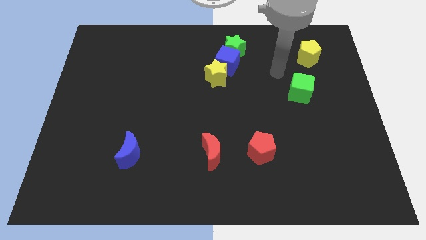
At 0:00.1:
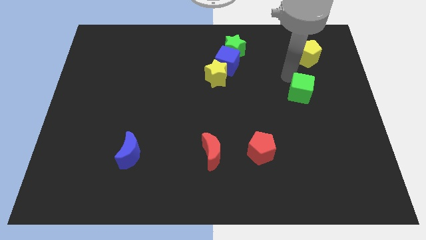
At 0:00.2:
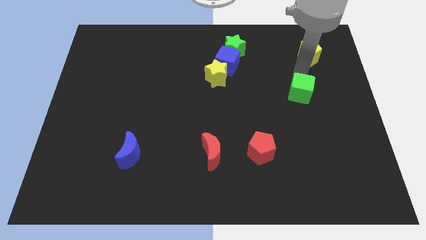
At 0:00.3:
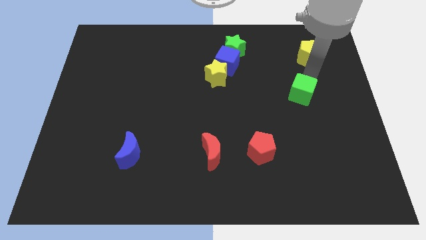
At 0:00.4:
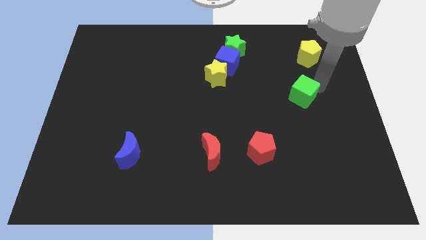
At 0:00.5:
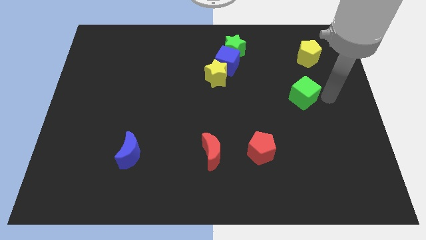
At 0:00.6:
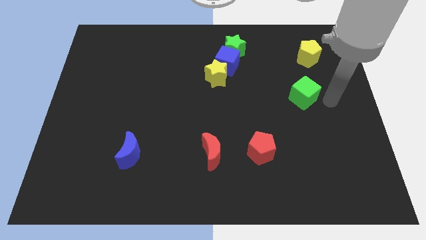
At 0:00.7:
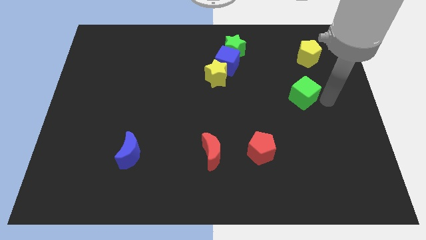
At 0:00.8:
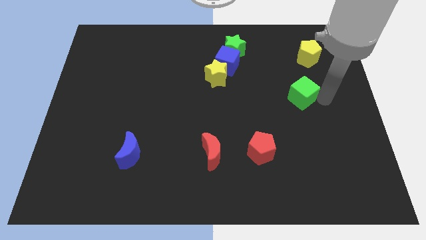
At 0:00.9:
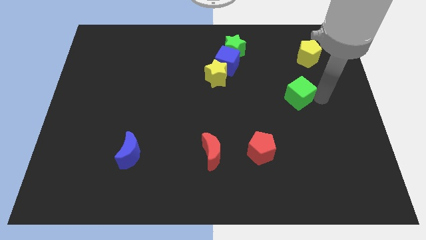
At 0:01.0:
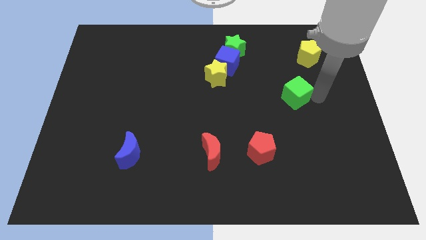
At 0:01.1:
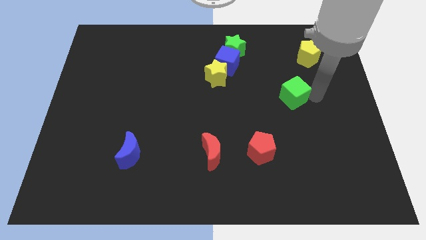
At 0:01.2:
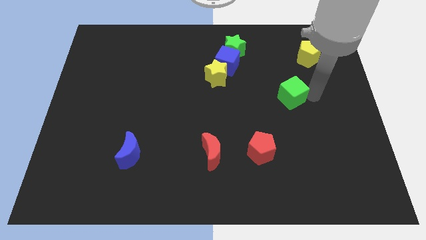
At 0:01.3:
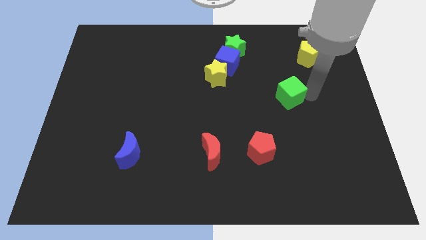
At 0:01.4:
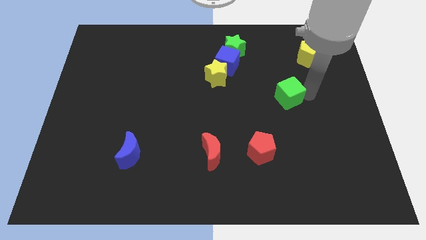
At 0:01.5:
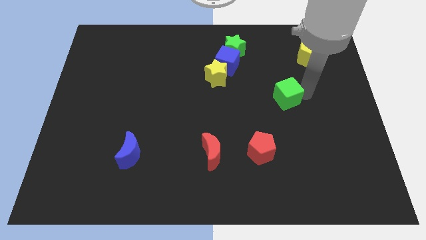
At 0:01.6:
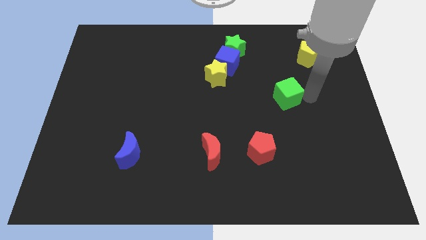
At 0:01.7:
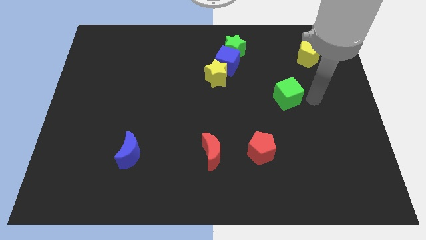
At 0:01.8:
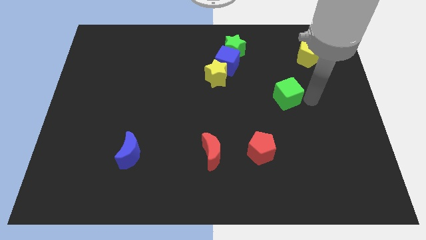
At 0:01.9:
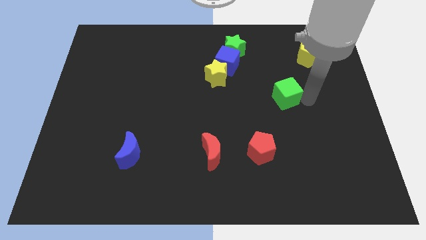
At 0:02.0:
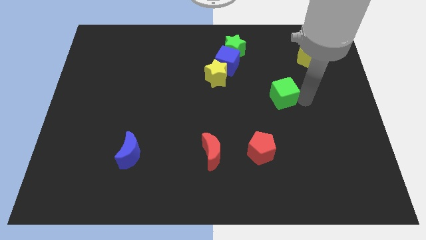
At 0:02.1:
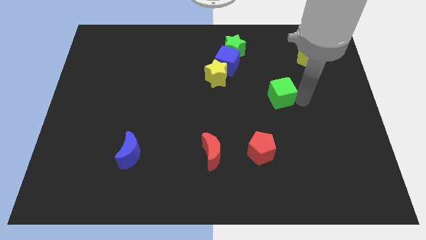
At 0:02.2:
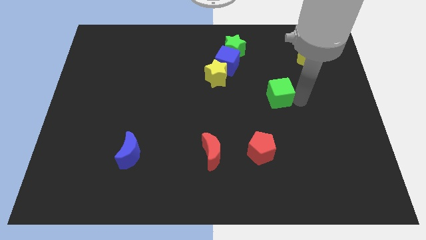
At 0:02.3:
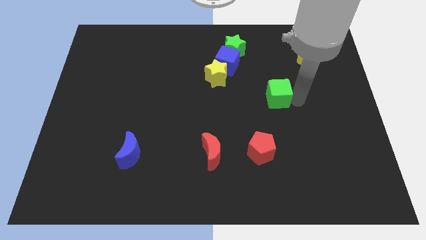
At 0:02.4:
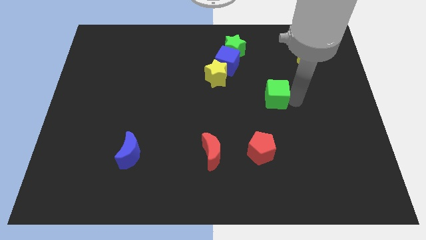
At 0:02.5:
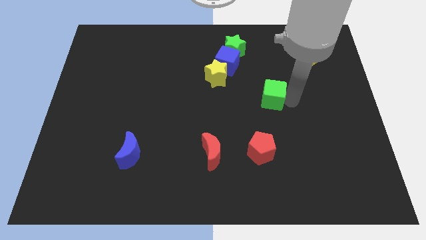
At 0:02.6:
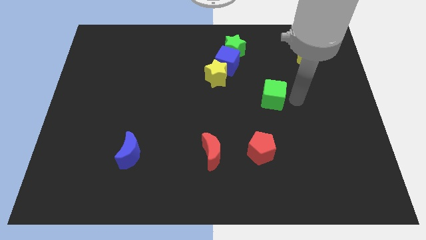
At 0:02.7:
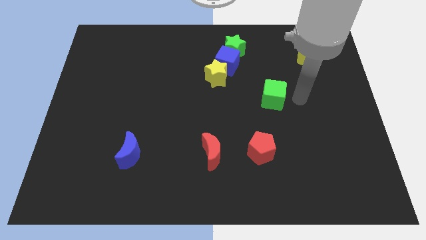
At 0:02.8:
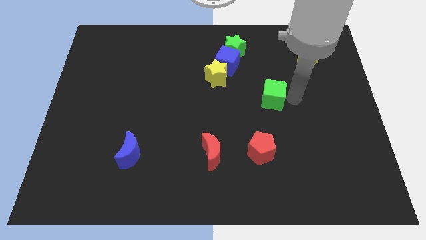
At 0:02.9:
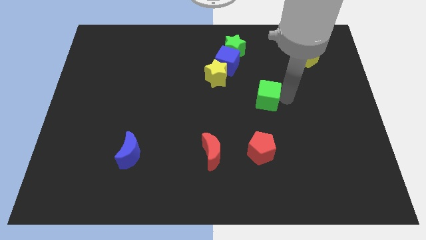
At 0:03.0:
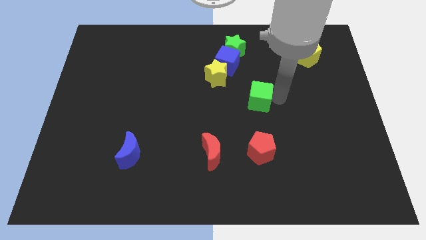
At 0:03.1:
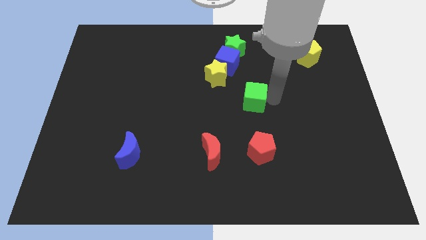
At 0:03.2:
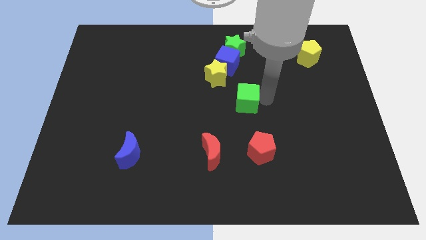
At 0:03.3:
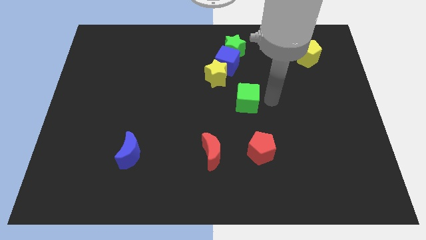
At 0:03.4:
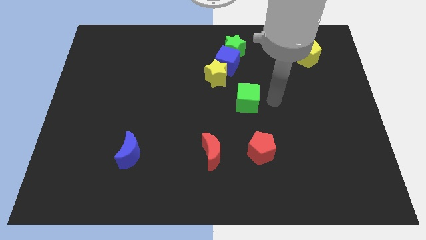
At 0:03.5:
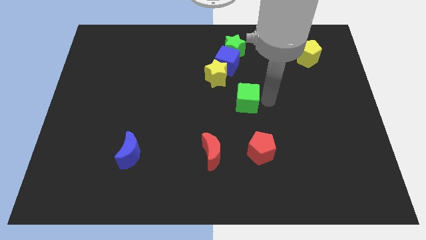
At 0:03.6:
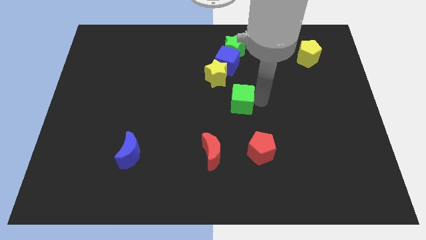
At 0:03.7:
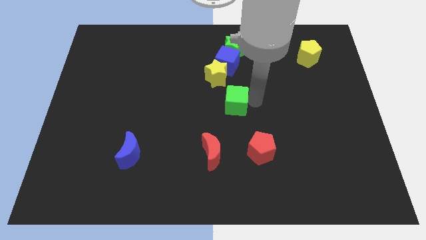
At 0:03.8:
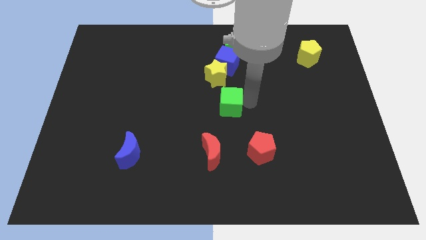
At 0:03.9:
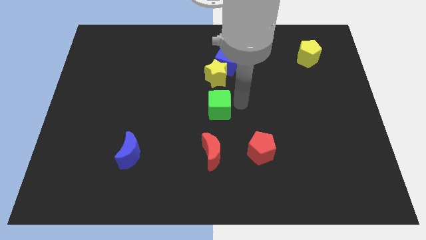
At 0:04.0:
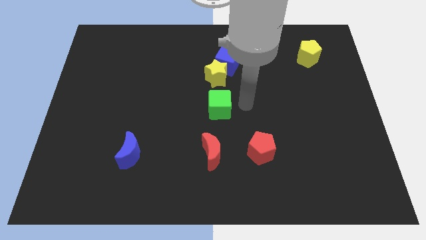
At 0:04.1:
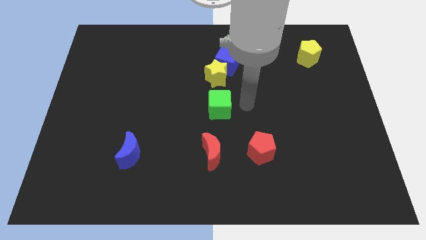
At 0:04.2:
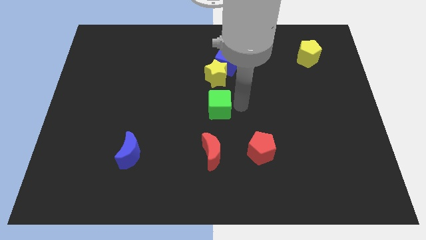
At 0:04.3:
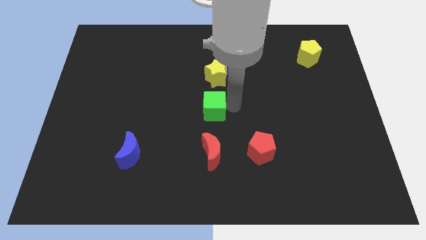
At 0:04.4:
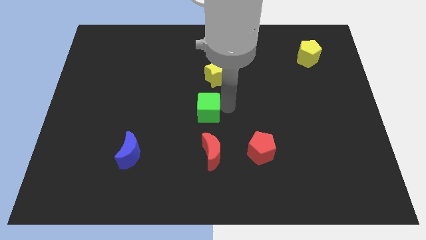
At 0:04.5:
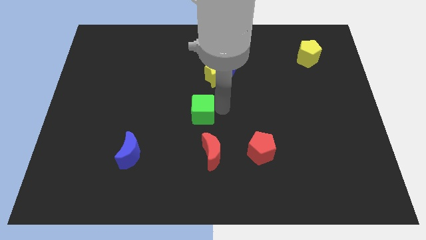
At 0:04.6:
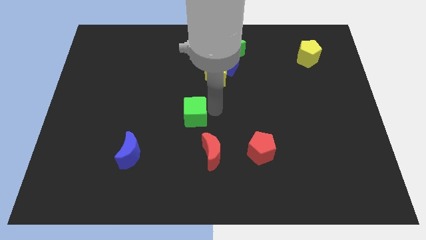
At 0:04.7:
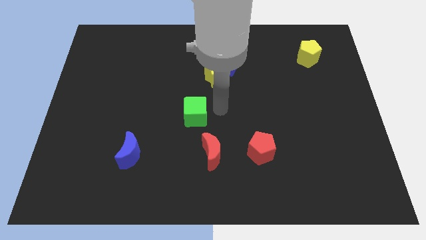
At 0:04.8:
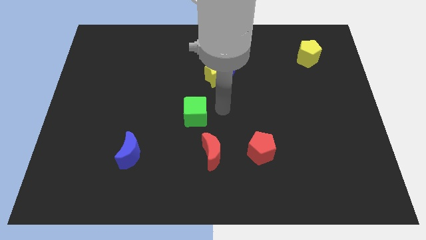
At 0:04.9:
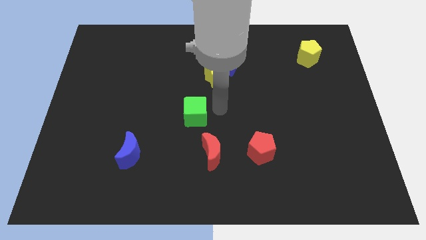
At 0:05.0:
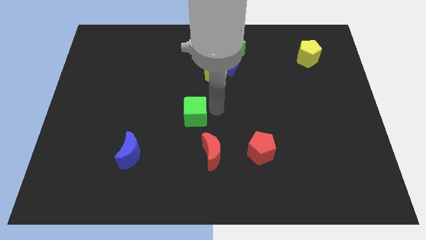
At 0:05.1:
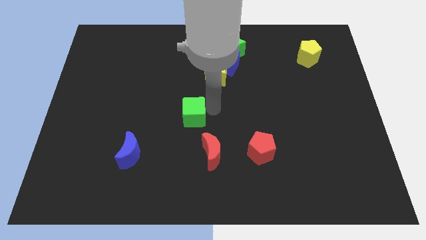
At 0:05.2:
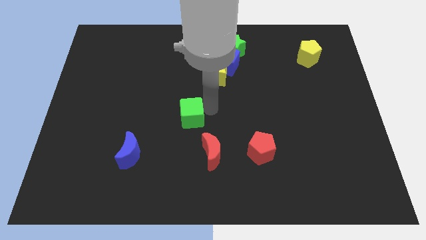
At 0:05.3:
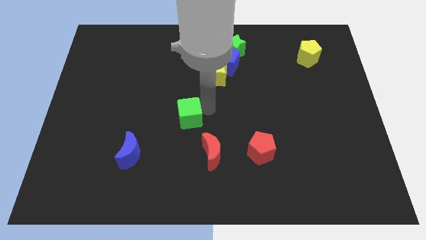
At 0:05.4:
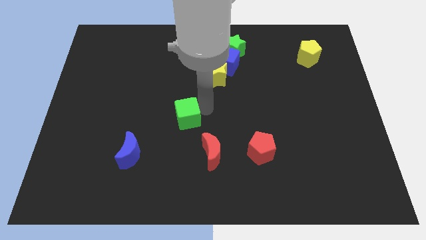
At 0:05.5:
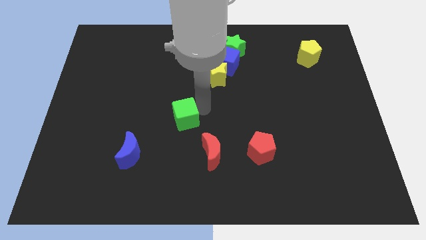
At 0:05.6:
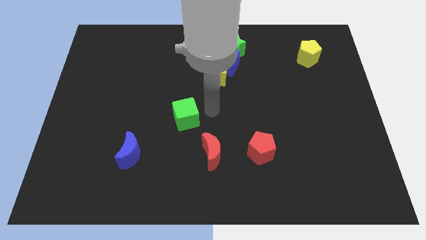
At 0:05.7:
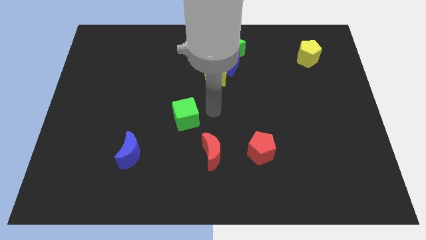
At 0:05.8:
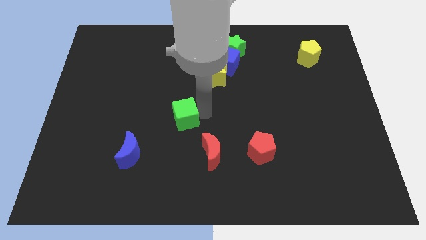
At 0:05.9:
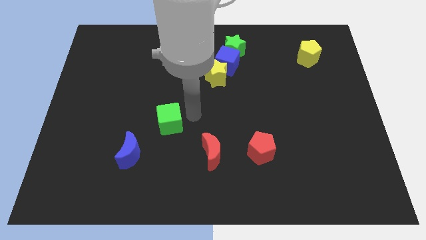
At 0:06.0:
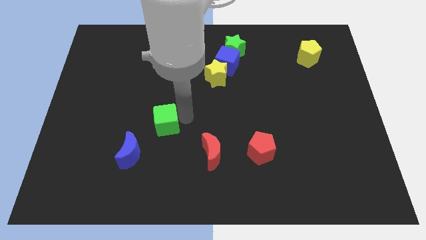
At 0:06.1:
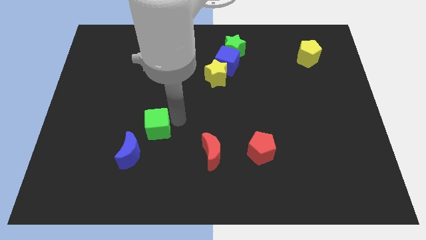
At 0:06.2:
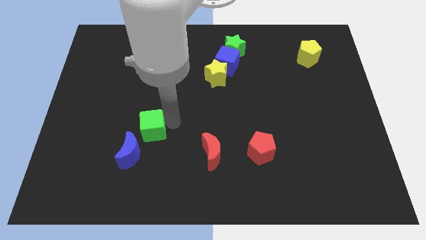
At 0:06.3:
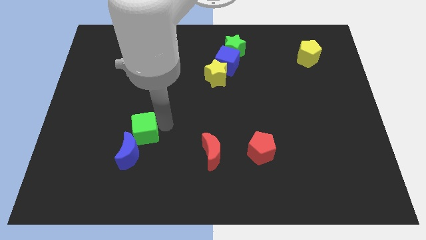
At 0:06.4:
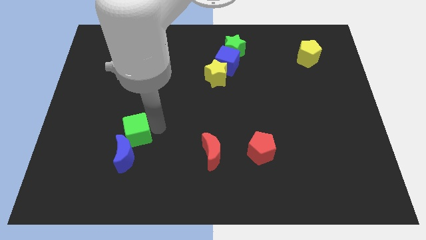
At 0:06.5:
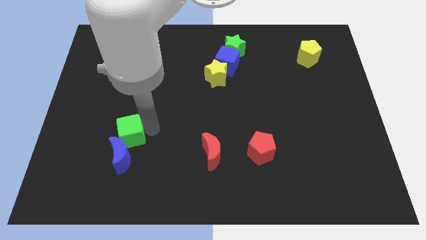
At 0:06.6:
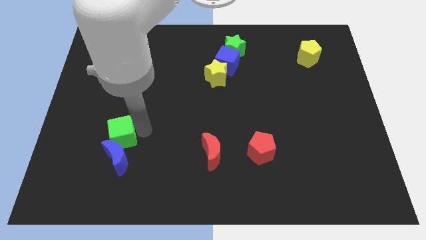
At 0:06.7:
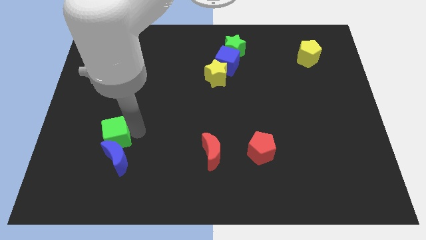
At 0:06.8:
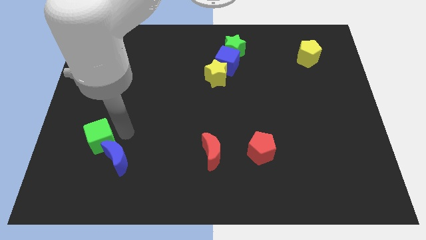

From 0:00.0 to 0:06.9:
move the green cube to the left of the blue moon
